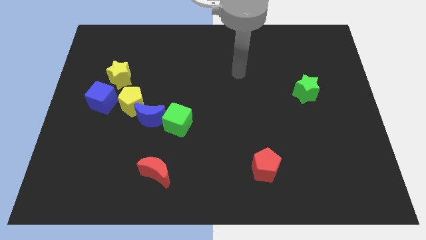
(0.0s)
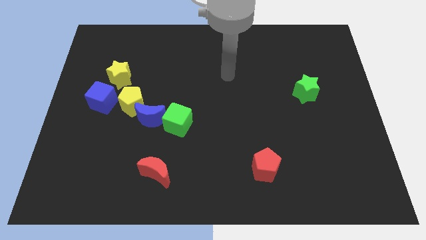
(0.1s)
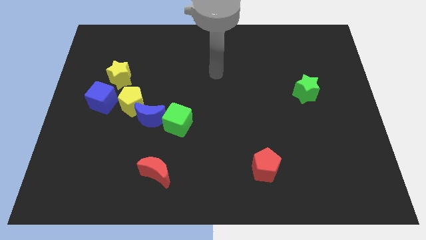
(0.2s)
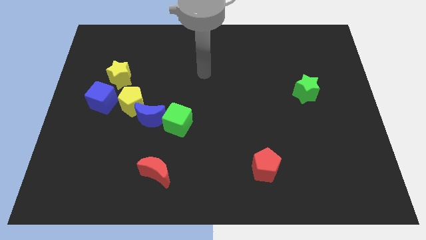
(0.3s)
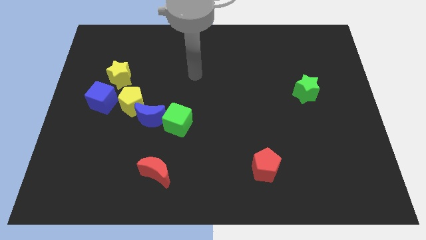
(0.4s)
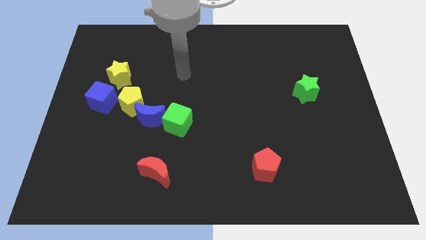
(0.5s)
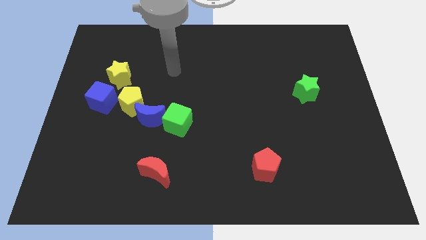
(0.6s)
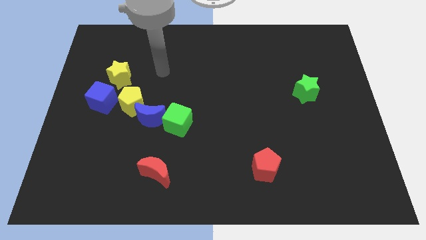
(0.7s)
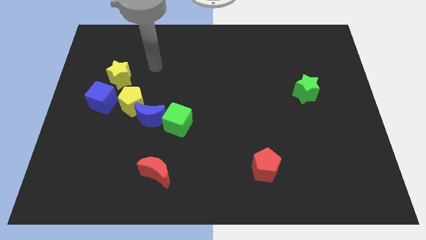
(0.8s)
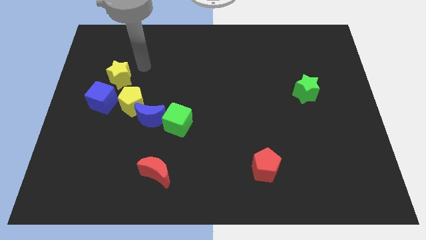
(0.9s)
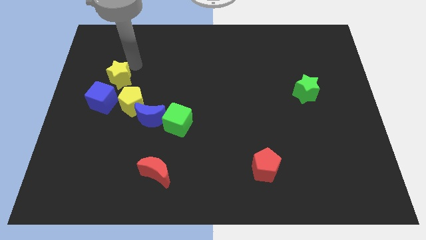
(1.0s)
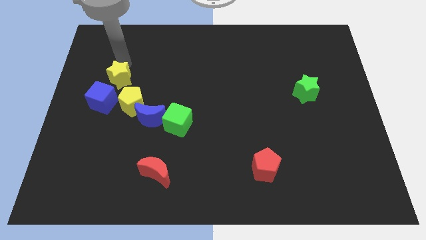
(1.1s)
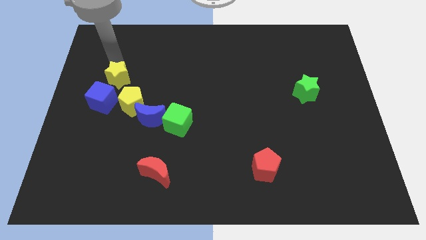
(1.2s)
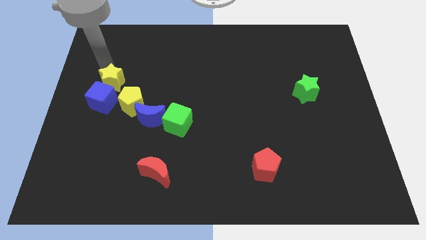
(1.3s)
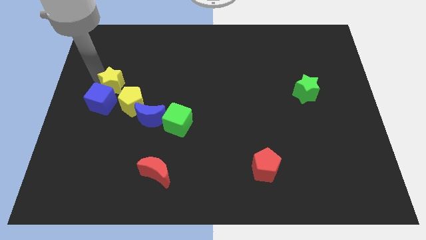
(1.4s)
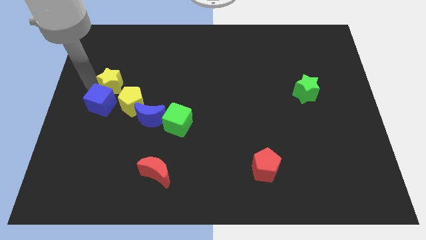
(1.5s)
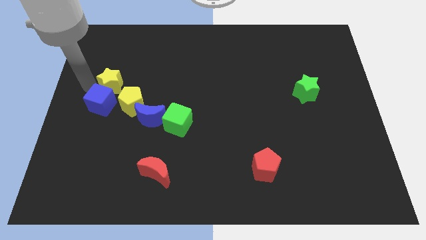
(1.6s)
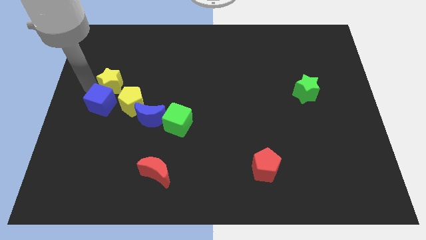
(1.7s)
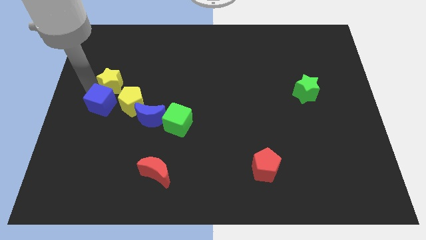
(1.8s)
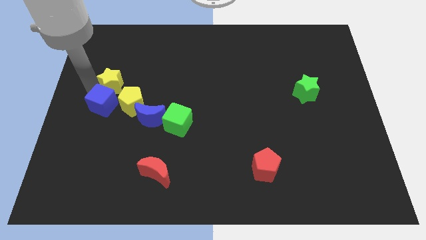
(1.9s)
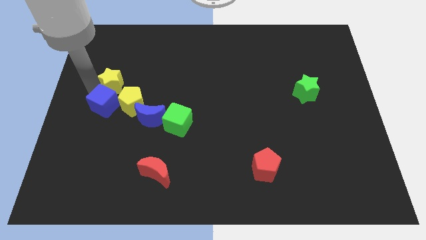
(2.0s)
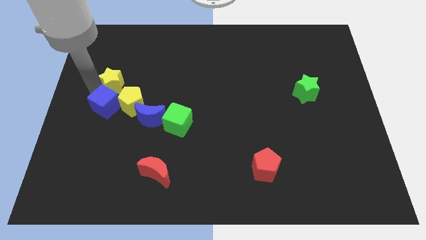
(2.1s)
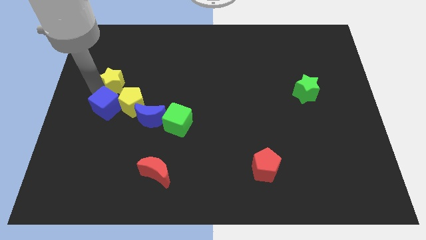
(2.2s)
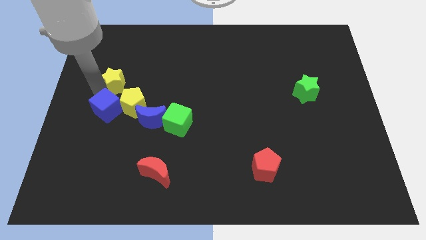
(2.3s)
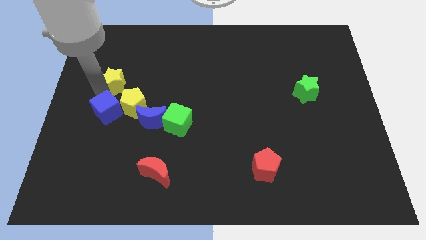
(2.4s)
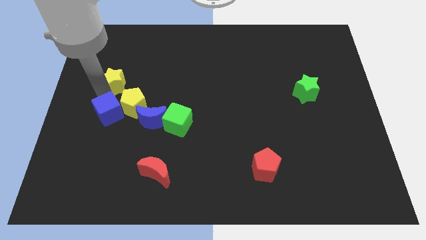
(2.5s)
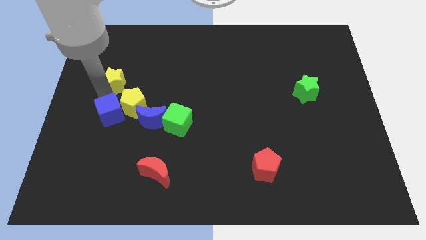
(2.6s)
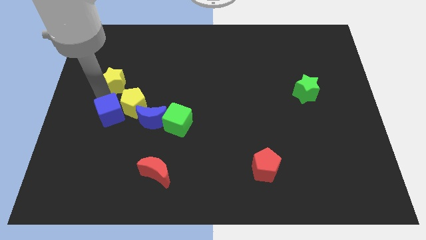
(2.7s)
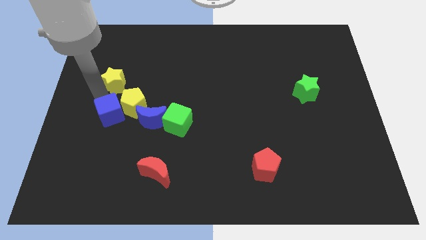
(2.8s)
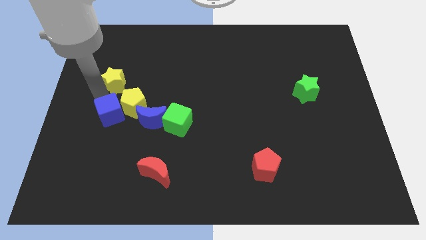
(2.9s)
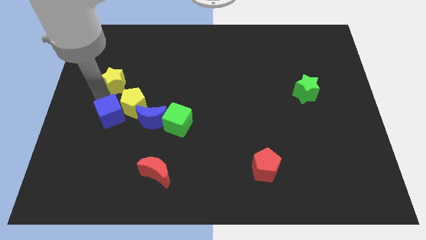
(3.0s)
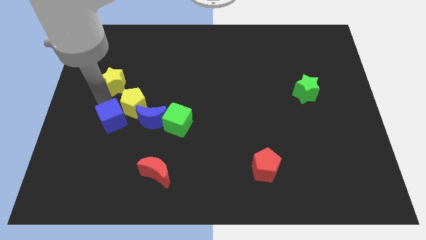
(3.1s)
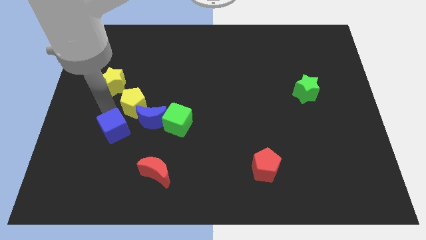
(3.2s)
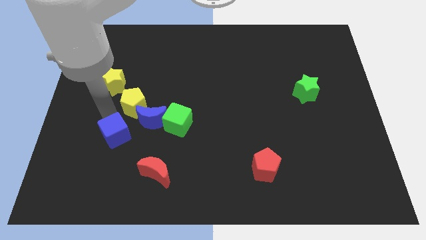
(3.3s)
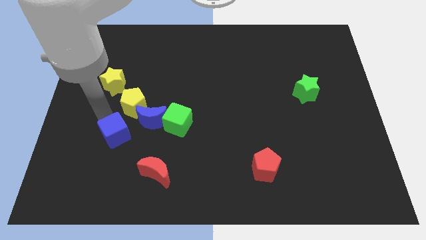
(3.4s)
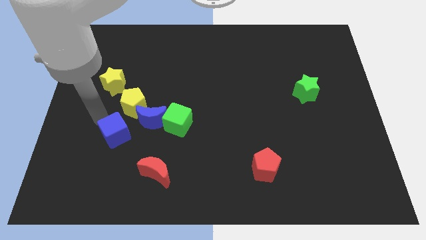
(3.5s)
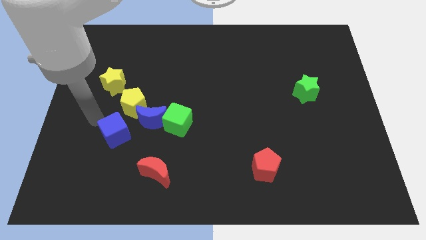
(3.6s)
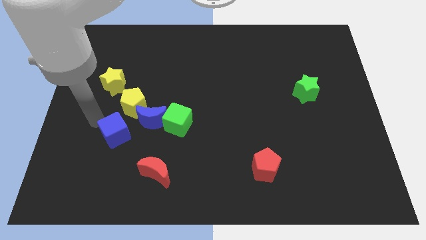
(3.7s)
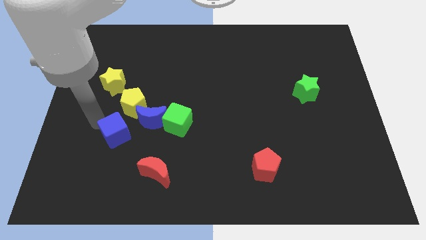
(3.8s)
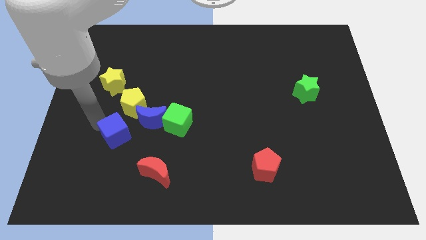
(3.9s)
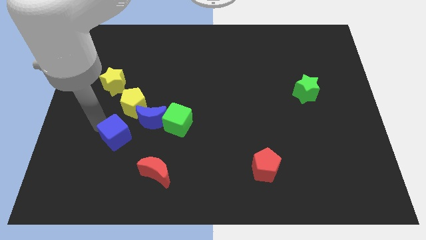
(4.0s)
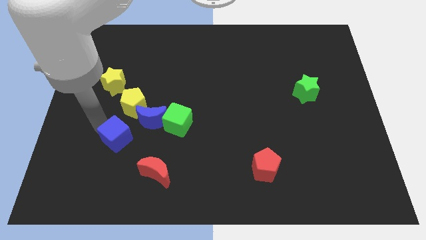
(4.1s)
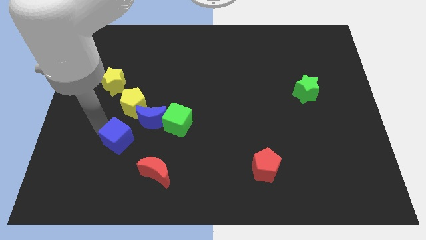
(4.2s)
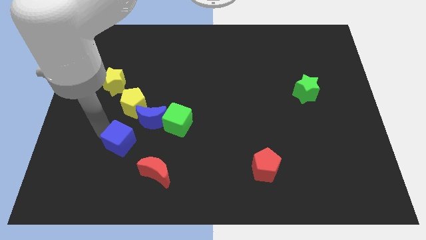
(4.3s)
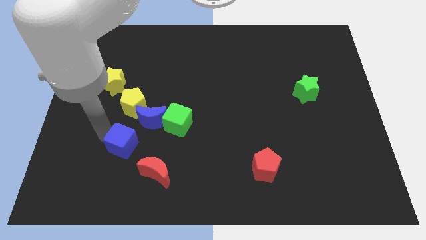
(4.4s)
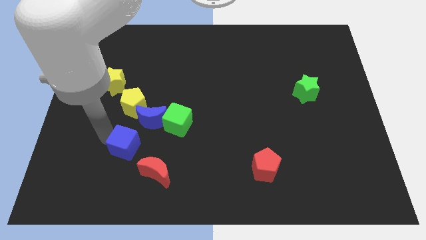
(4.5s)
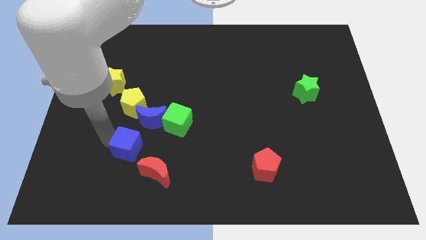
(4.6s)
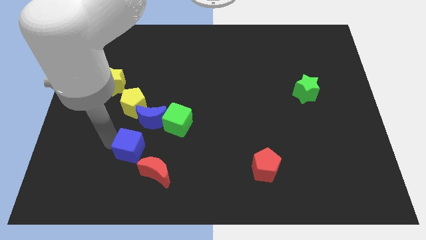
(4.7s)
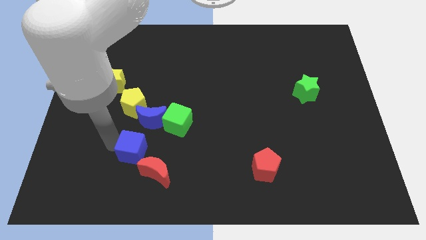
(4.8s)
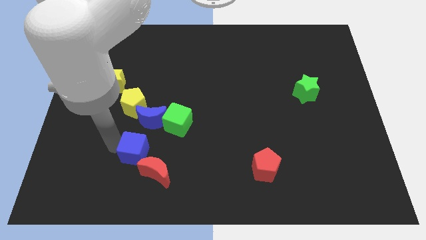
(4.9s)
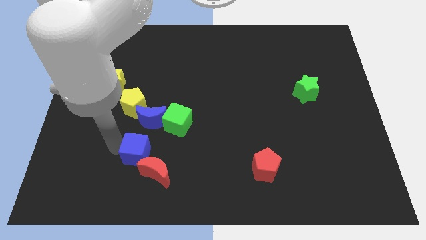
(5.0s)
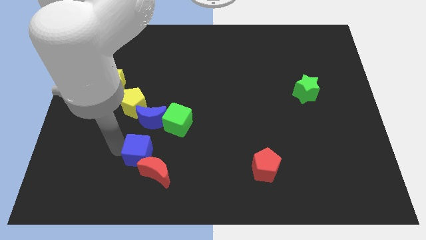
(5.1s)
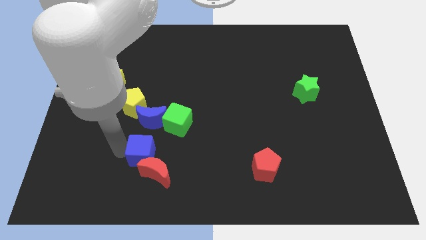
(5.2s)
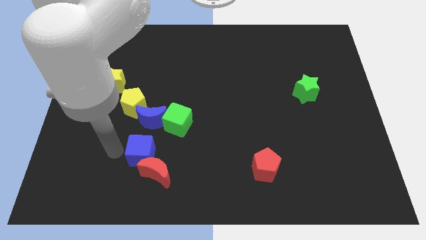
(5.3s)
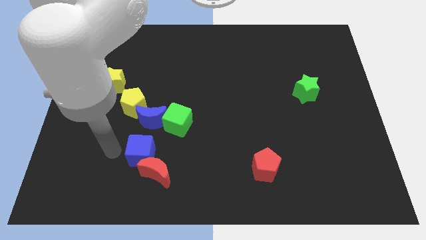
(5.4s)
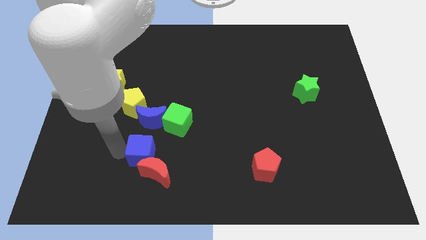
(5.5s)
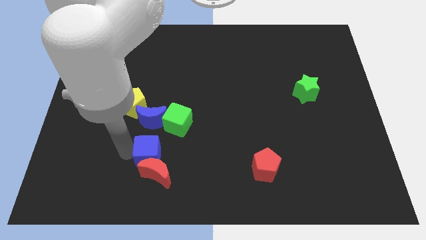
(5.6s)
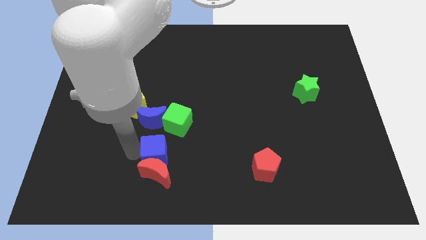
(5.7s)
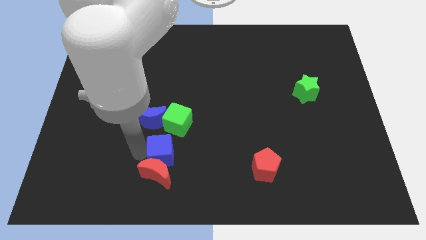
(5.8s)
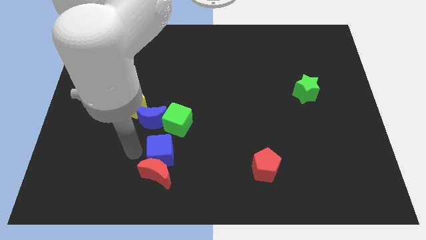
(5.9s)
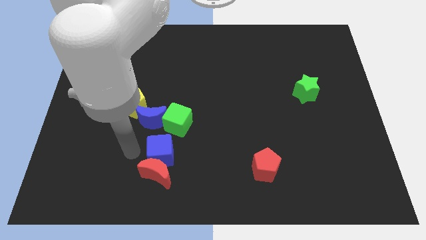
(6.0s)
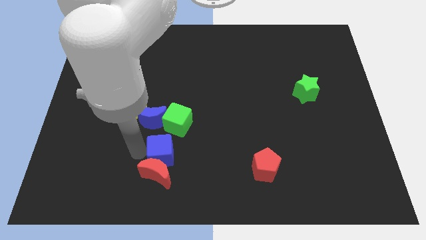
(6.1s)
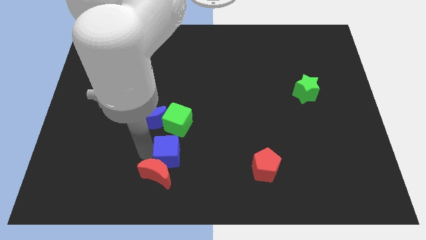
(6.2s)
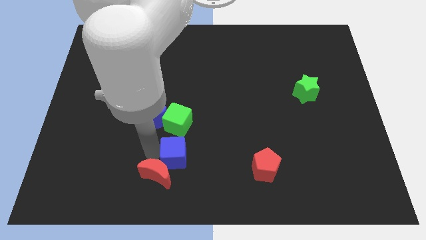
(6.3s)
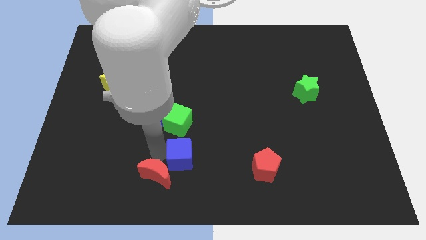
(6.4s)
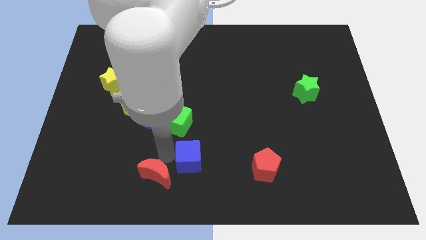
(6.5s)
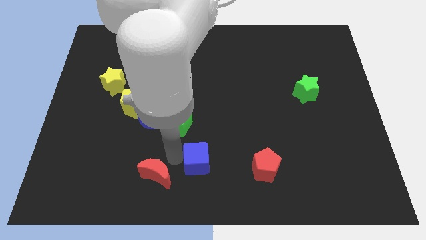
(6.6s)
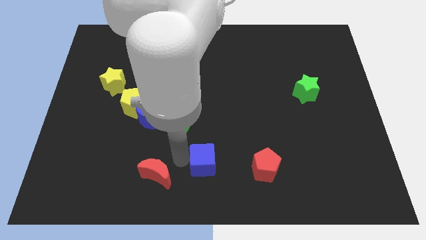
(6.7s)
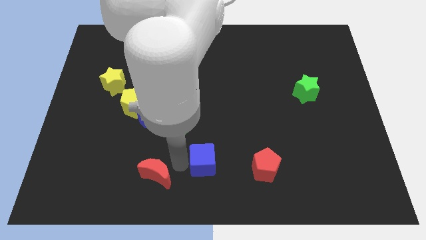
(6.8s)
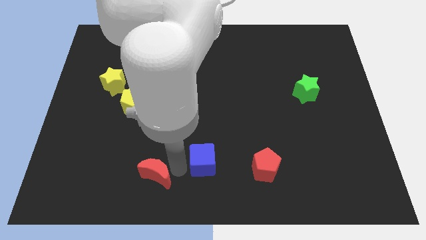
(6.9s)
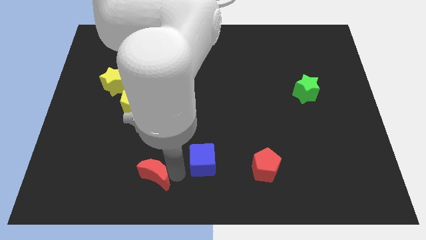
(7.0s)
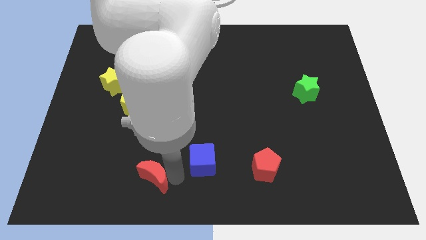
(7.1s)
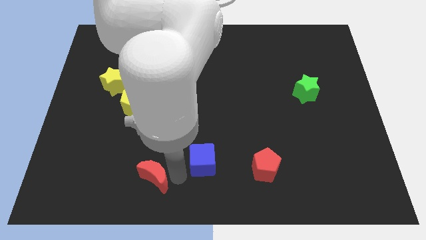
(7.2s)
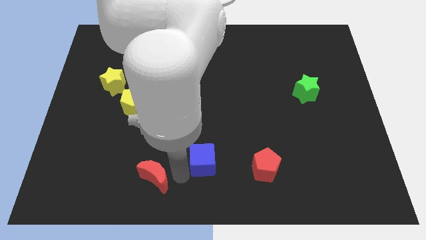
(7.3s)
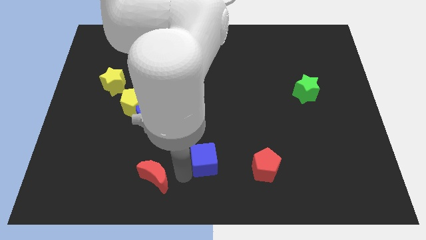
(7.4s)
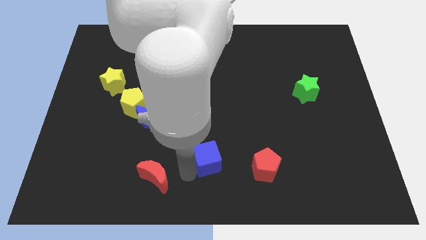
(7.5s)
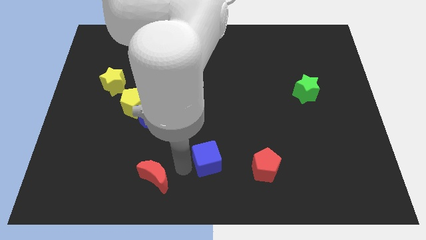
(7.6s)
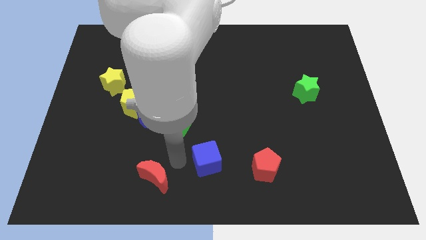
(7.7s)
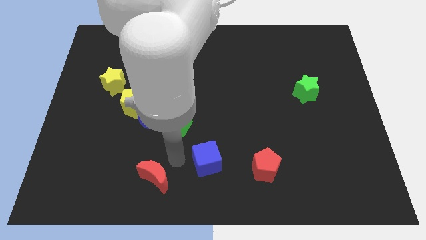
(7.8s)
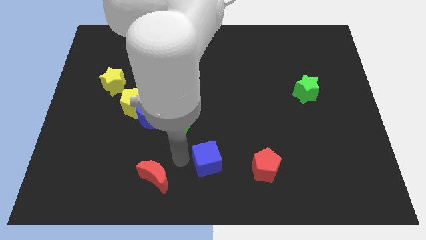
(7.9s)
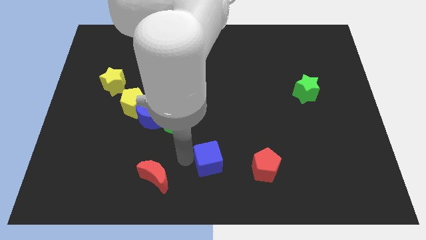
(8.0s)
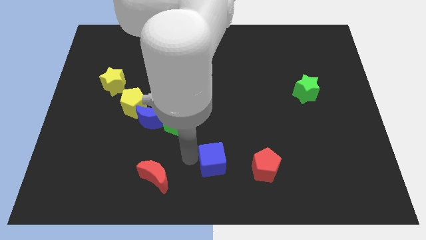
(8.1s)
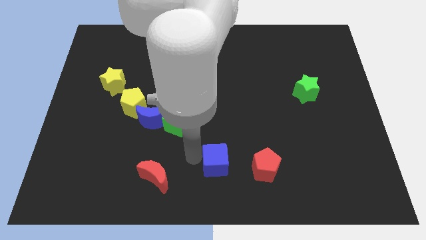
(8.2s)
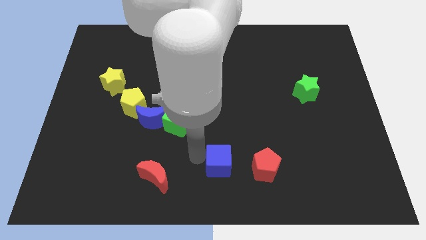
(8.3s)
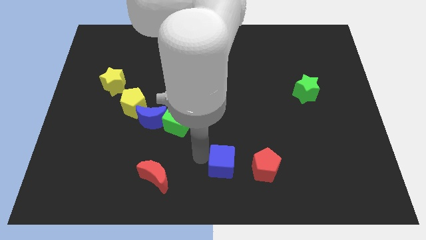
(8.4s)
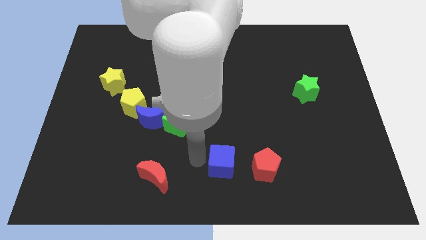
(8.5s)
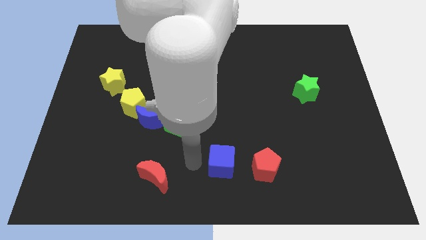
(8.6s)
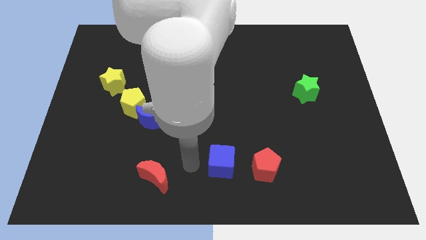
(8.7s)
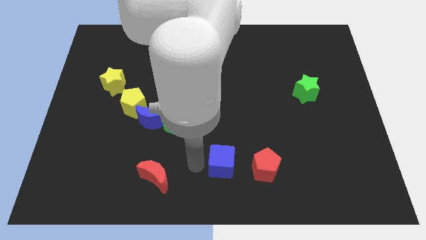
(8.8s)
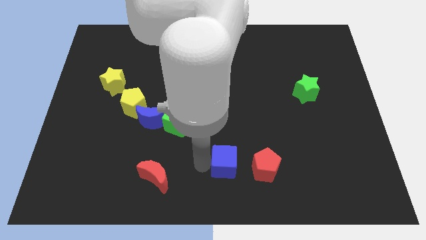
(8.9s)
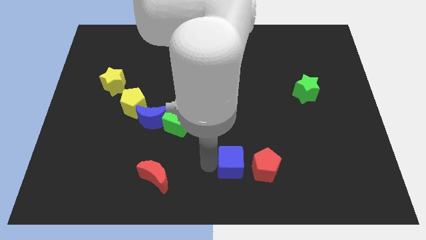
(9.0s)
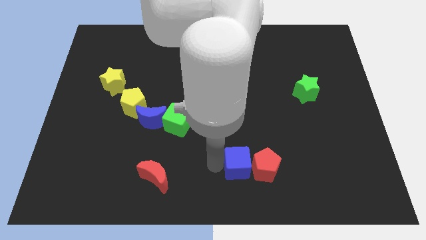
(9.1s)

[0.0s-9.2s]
push the blue cube towards the red pentagon
